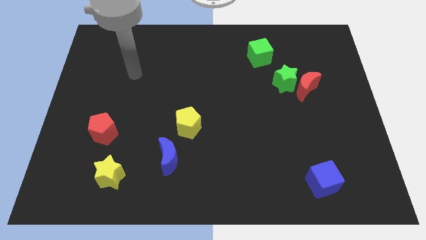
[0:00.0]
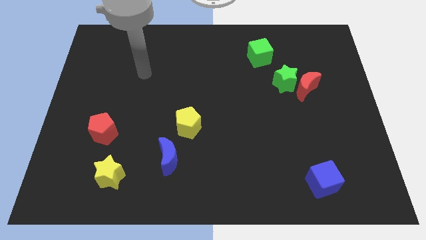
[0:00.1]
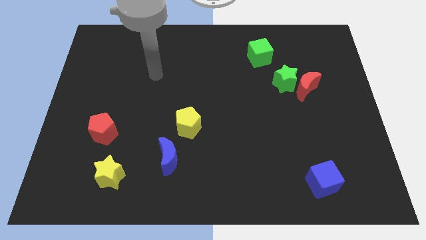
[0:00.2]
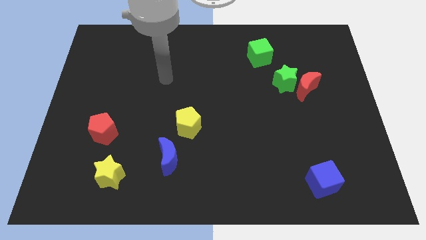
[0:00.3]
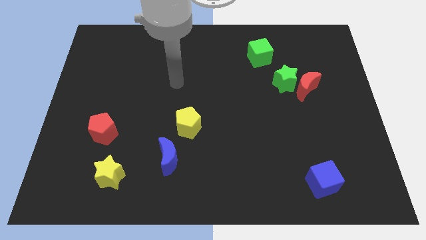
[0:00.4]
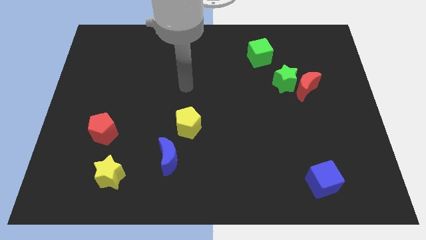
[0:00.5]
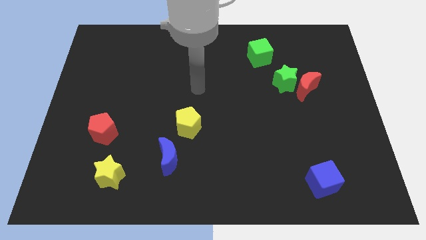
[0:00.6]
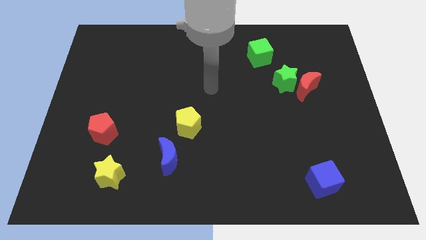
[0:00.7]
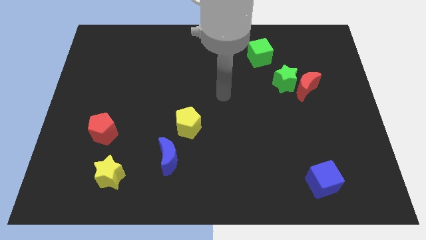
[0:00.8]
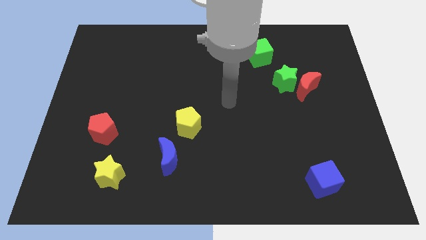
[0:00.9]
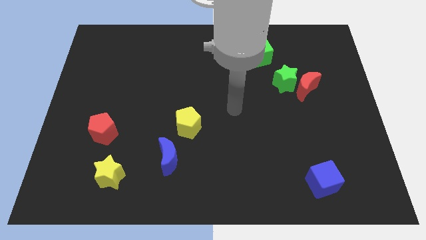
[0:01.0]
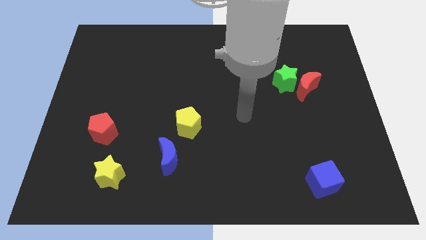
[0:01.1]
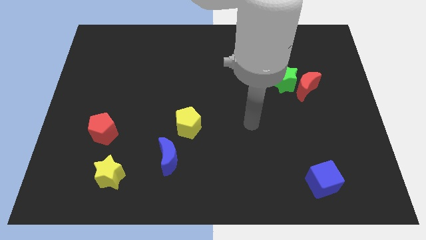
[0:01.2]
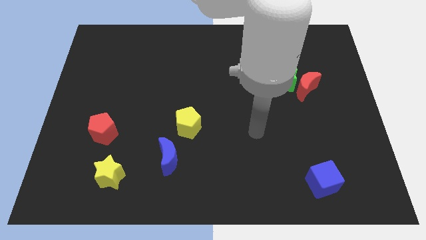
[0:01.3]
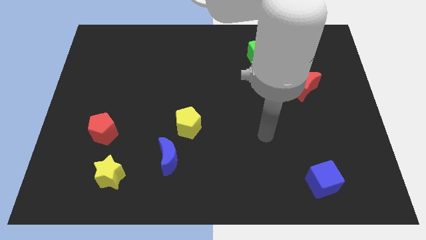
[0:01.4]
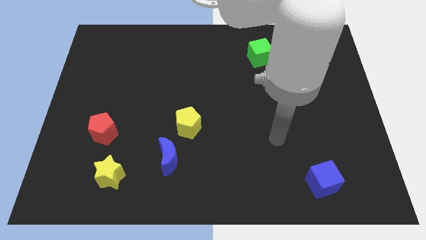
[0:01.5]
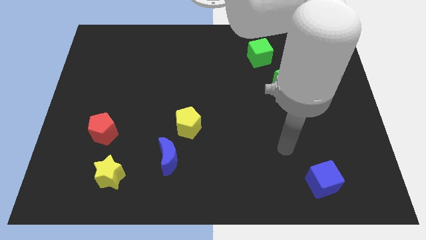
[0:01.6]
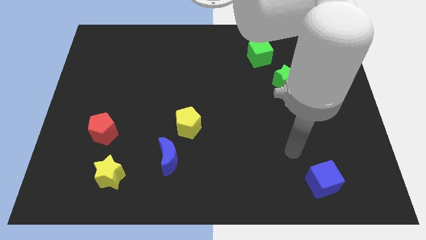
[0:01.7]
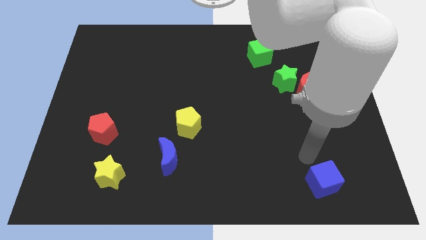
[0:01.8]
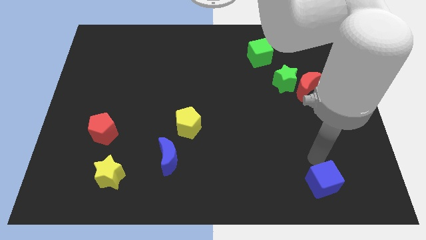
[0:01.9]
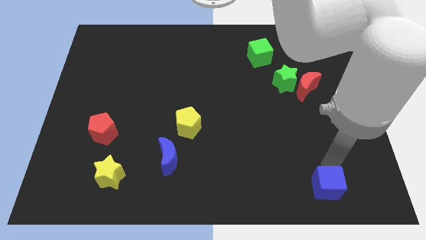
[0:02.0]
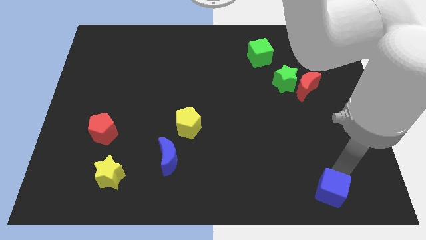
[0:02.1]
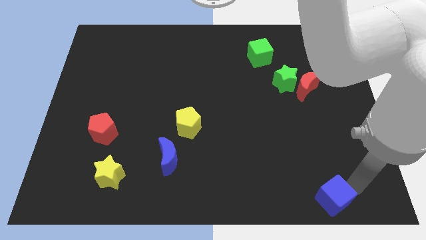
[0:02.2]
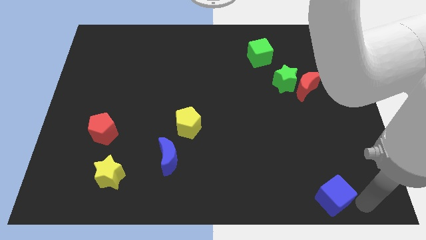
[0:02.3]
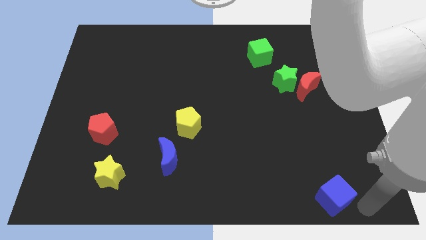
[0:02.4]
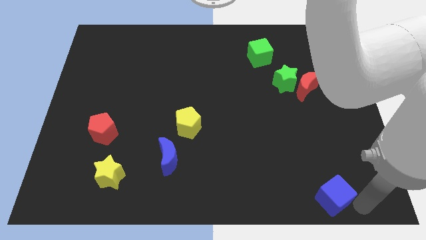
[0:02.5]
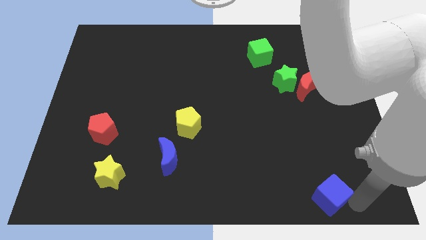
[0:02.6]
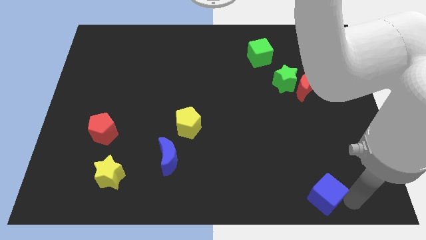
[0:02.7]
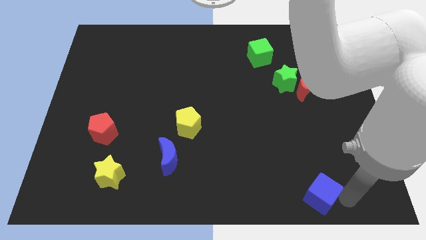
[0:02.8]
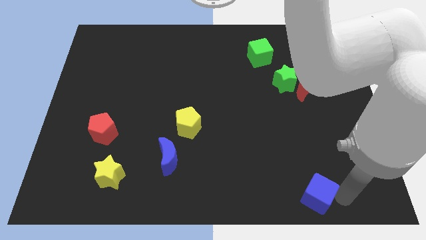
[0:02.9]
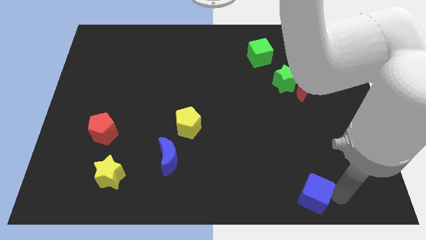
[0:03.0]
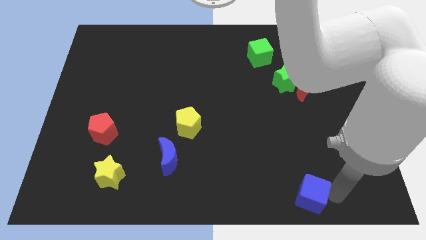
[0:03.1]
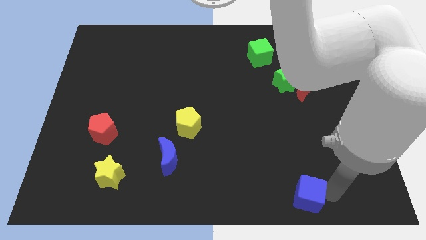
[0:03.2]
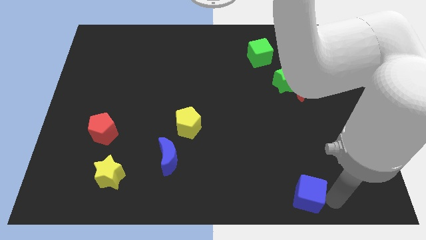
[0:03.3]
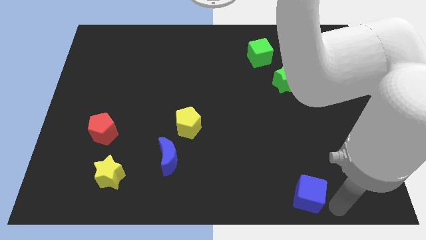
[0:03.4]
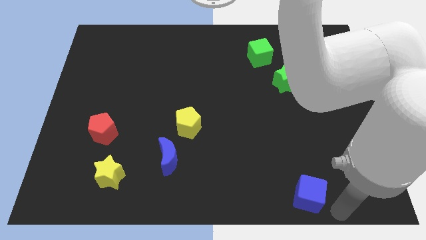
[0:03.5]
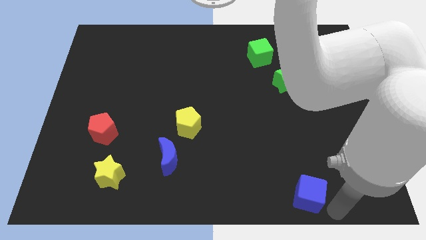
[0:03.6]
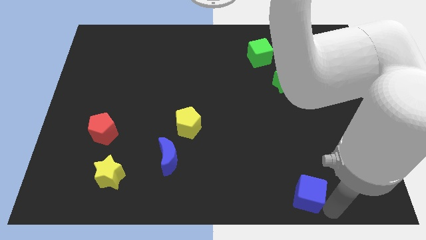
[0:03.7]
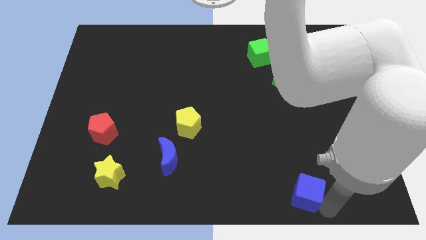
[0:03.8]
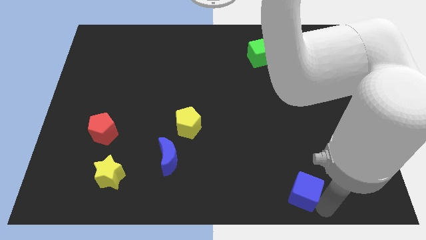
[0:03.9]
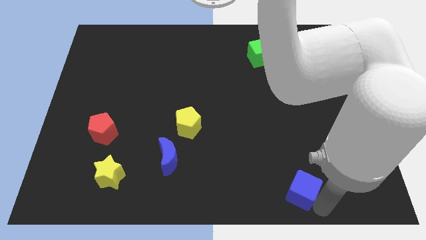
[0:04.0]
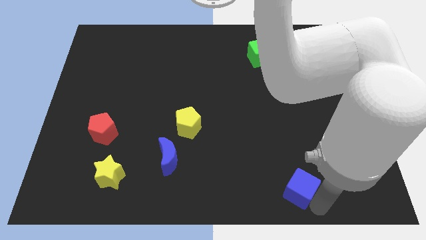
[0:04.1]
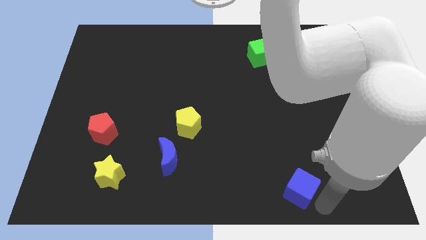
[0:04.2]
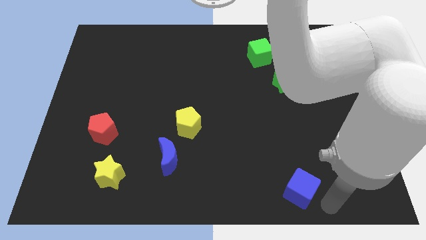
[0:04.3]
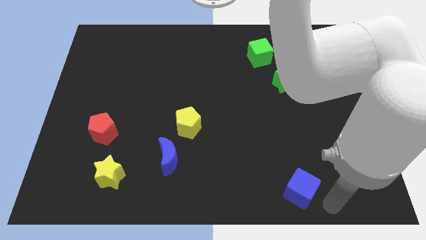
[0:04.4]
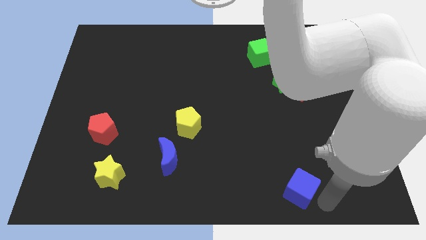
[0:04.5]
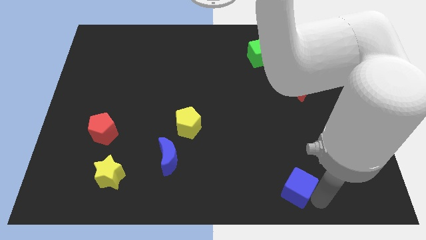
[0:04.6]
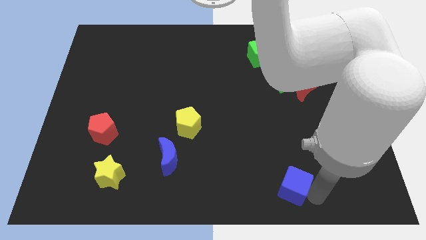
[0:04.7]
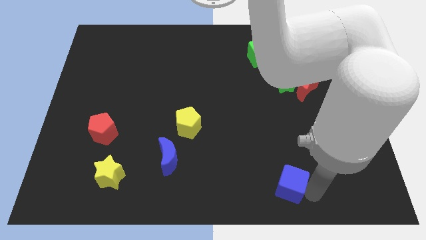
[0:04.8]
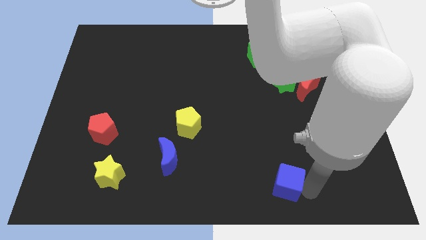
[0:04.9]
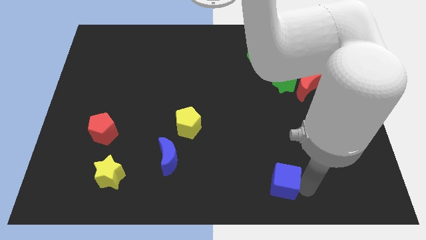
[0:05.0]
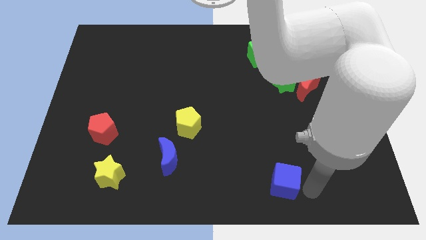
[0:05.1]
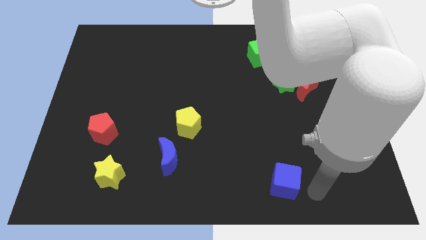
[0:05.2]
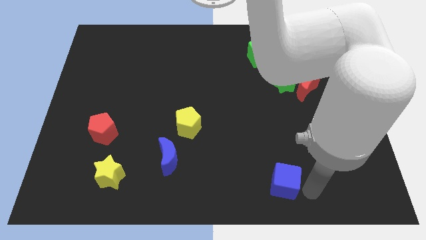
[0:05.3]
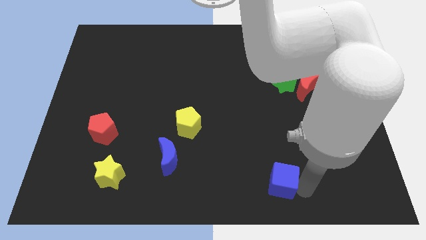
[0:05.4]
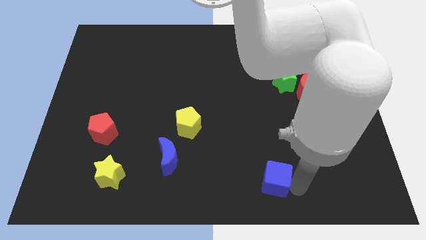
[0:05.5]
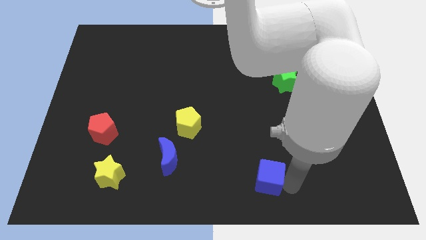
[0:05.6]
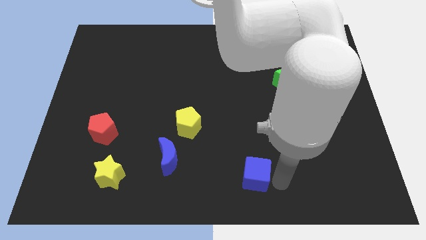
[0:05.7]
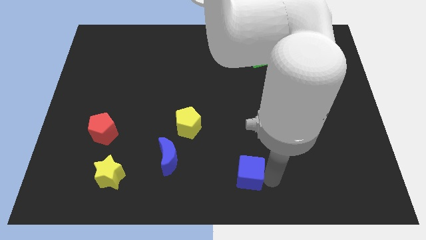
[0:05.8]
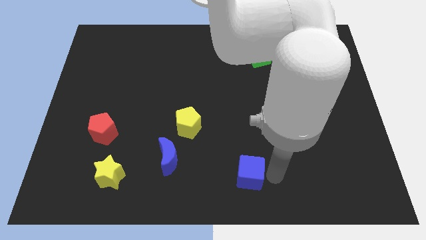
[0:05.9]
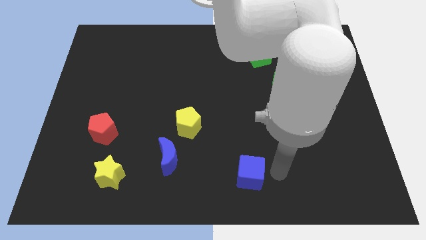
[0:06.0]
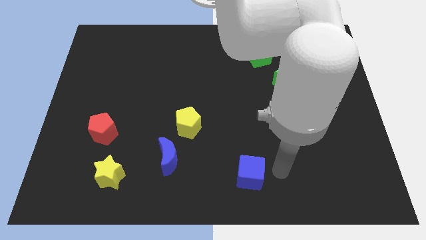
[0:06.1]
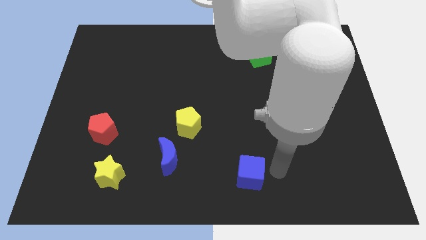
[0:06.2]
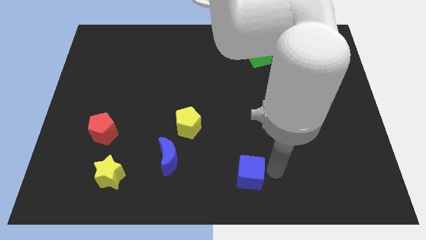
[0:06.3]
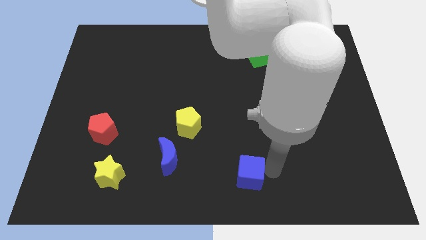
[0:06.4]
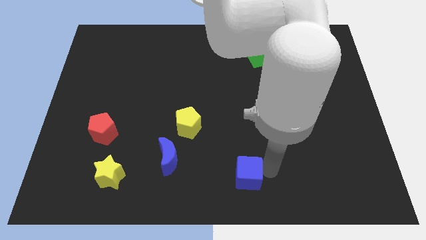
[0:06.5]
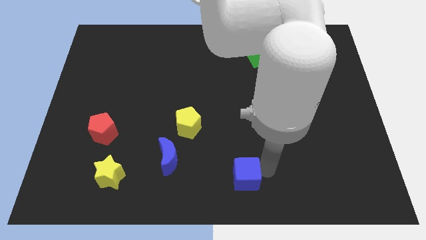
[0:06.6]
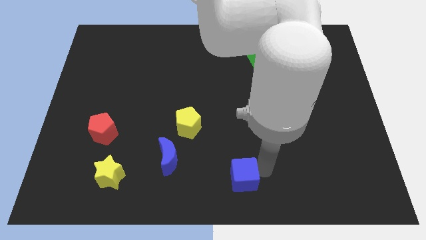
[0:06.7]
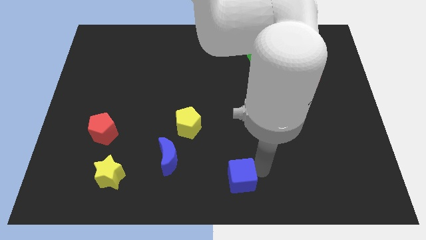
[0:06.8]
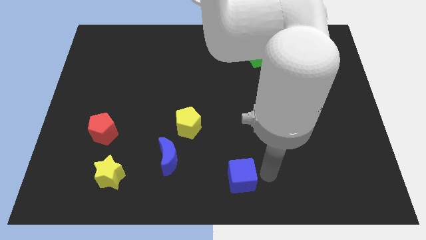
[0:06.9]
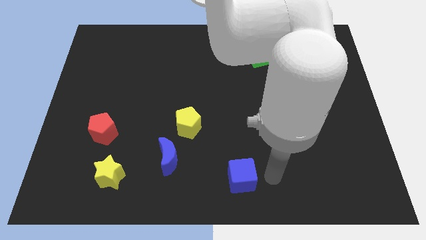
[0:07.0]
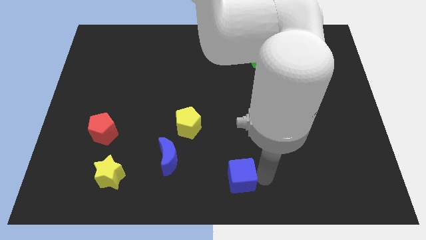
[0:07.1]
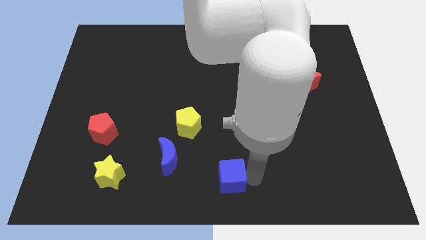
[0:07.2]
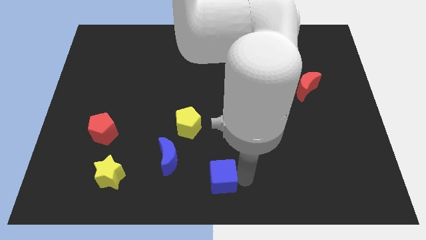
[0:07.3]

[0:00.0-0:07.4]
move the blue cube to the left

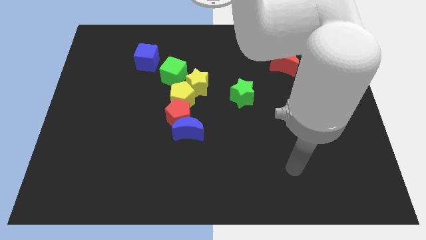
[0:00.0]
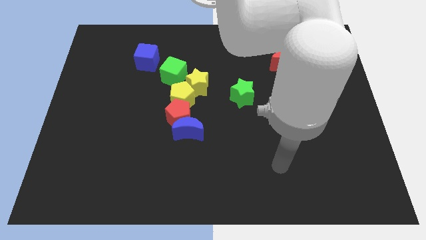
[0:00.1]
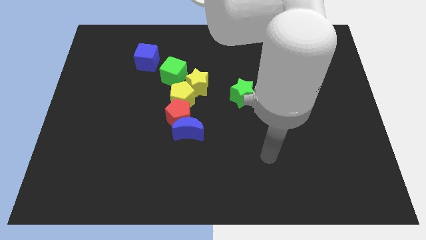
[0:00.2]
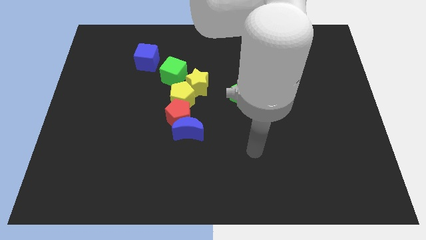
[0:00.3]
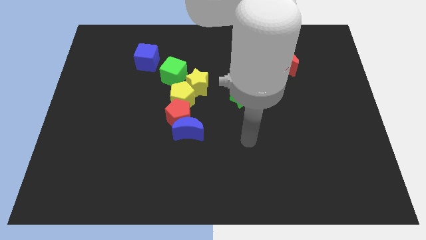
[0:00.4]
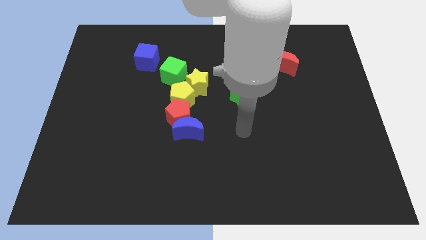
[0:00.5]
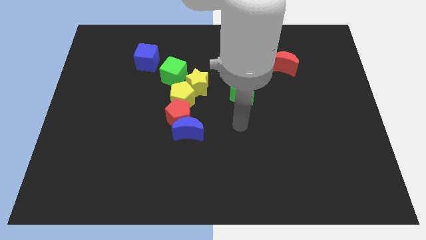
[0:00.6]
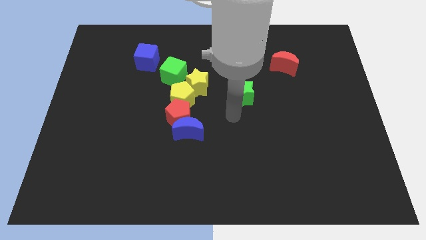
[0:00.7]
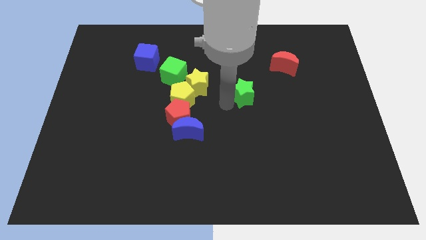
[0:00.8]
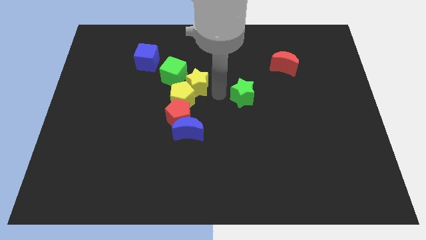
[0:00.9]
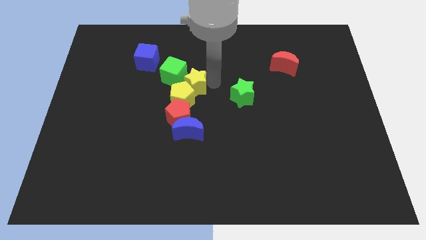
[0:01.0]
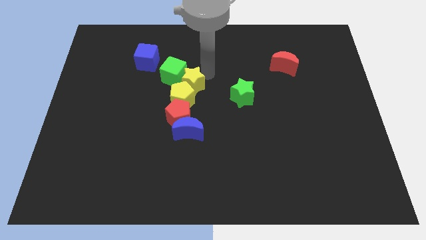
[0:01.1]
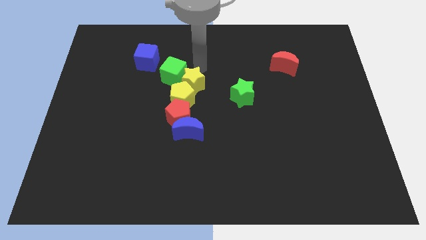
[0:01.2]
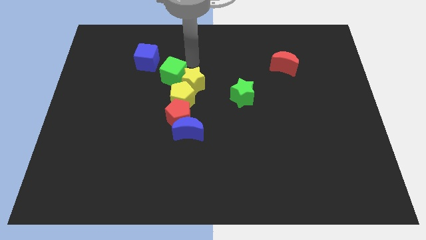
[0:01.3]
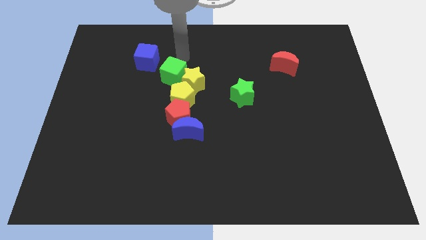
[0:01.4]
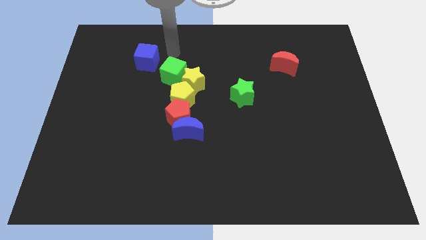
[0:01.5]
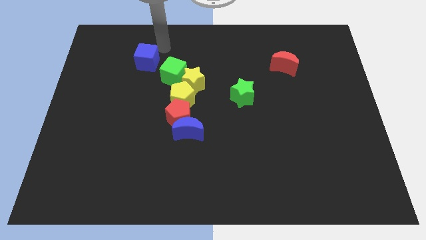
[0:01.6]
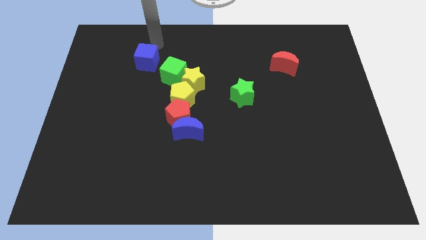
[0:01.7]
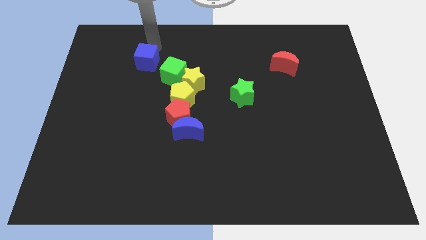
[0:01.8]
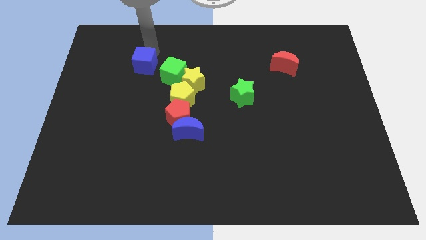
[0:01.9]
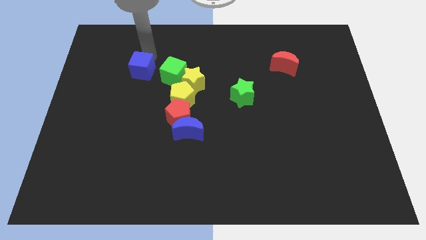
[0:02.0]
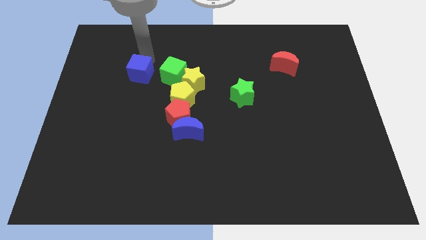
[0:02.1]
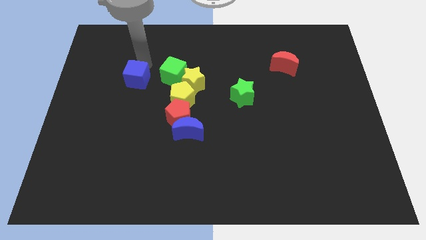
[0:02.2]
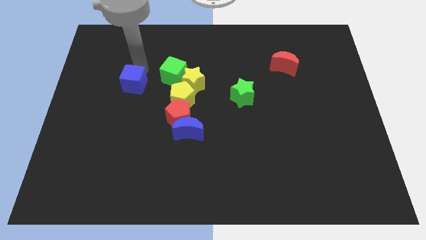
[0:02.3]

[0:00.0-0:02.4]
slightly move the blue cube downwards
